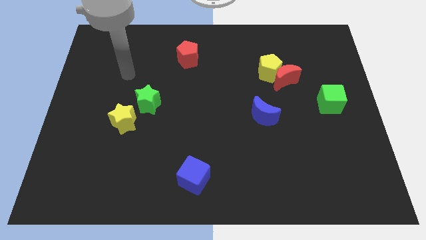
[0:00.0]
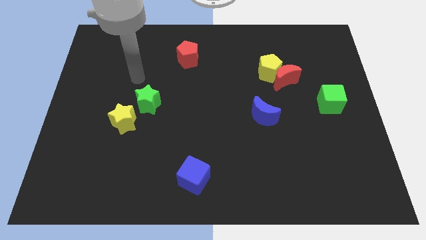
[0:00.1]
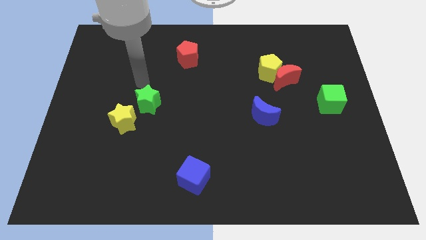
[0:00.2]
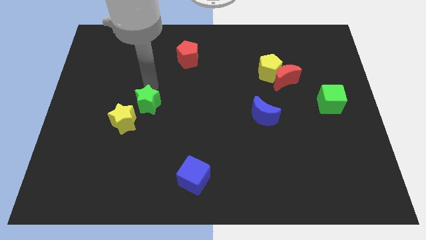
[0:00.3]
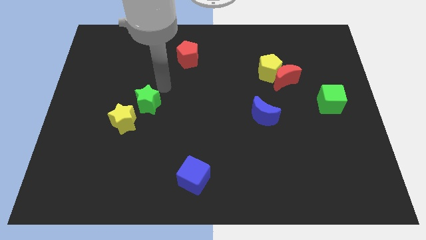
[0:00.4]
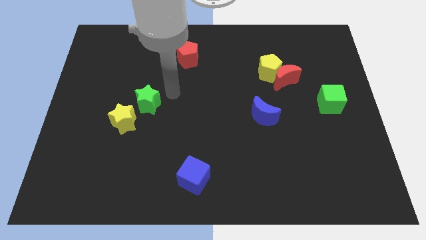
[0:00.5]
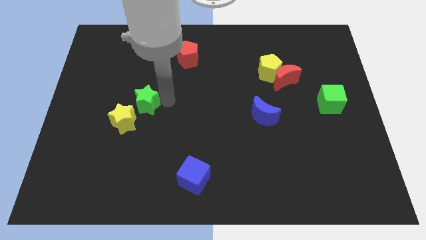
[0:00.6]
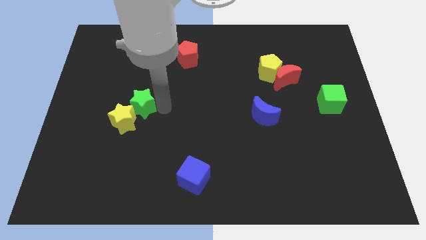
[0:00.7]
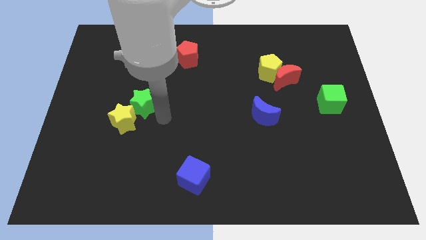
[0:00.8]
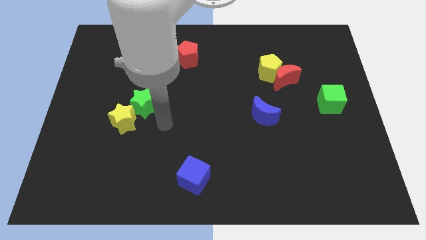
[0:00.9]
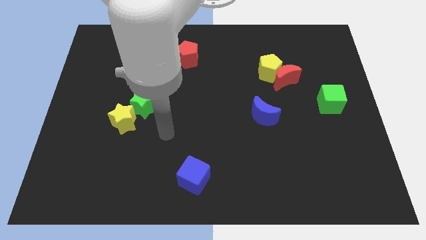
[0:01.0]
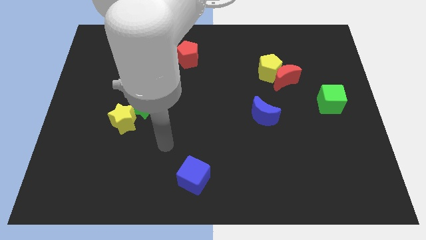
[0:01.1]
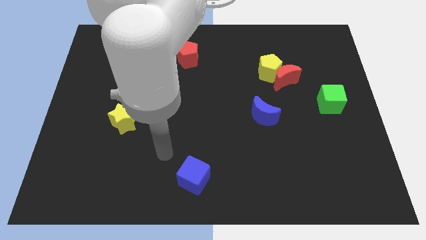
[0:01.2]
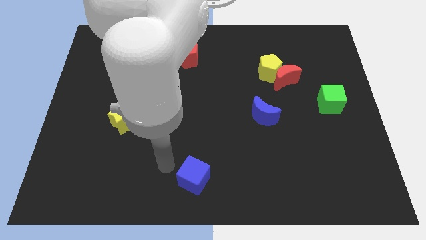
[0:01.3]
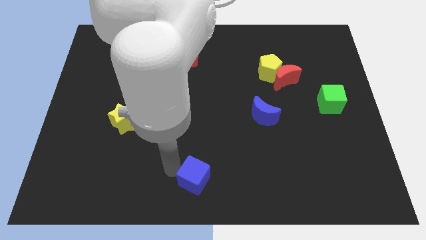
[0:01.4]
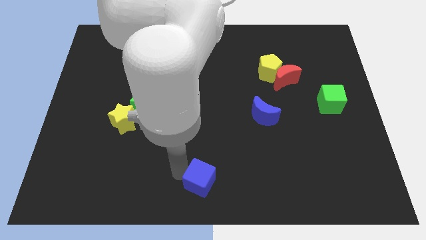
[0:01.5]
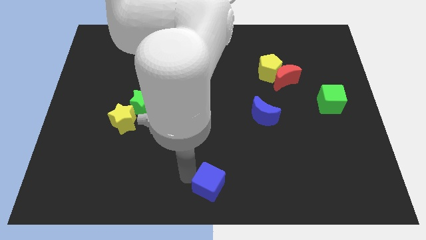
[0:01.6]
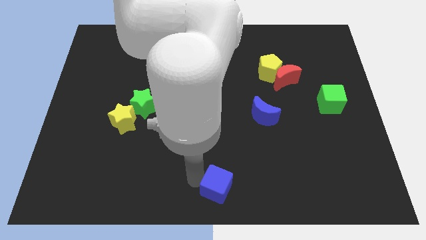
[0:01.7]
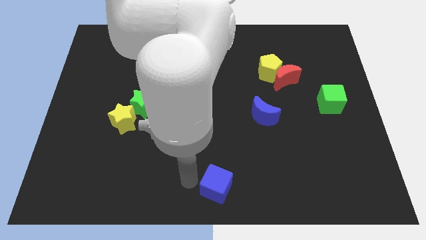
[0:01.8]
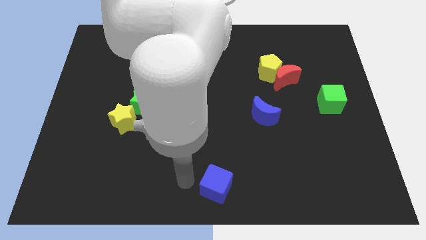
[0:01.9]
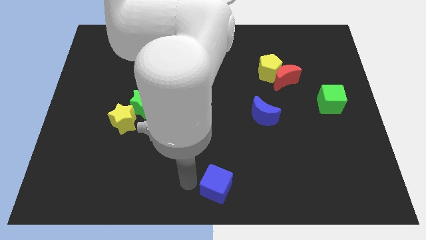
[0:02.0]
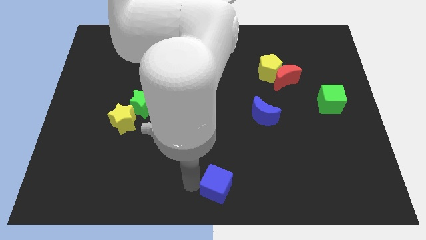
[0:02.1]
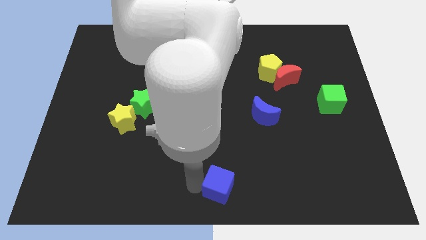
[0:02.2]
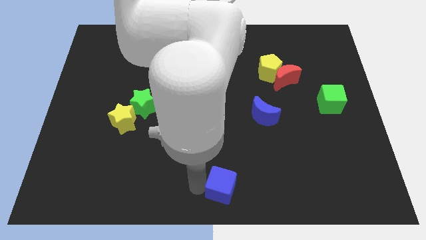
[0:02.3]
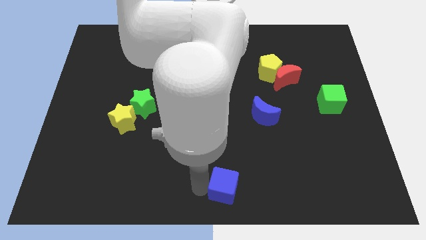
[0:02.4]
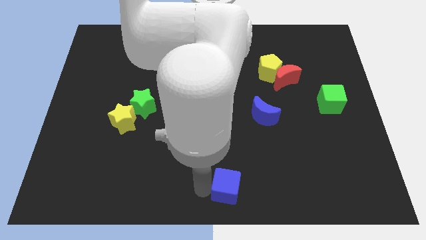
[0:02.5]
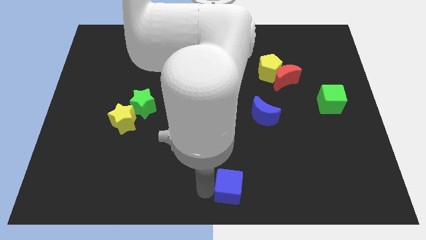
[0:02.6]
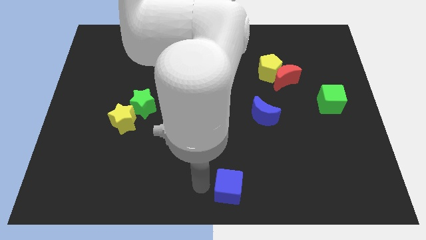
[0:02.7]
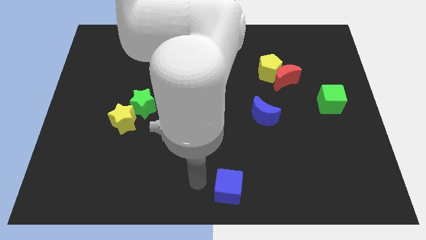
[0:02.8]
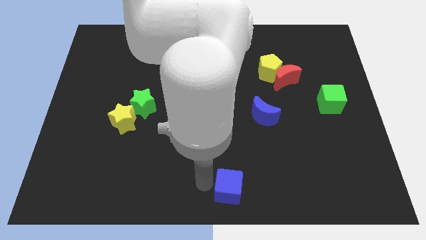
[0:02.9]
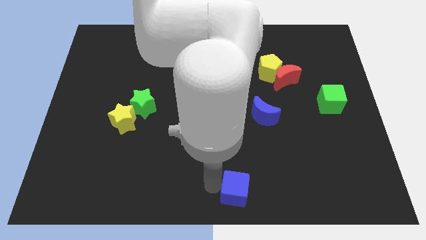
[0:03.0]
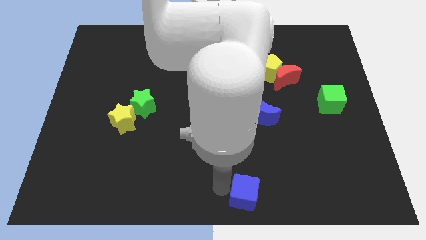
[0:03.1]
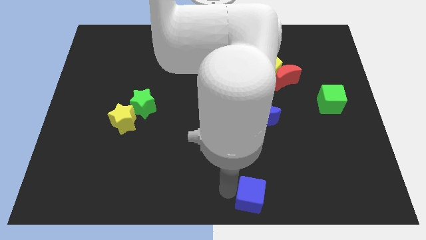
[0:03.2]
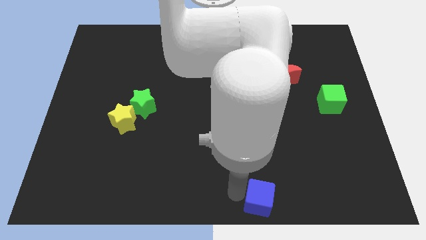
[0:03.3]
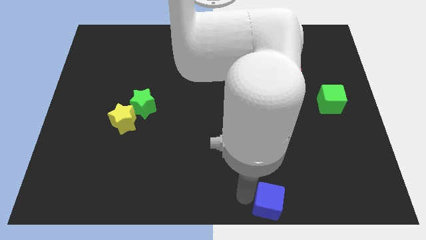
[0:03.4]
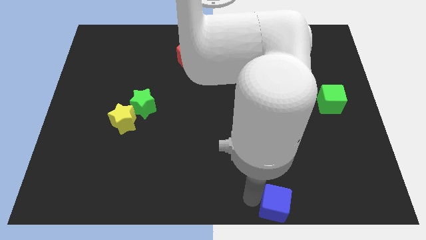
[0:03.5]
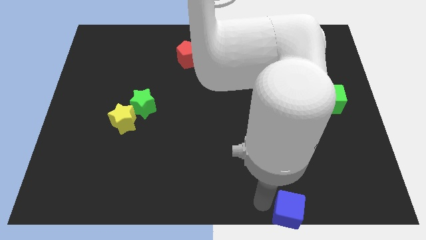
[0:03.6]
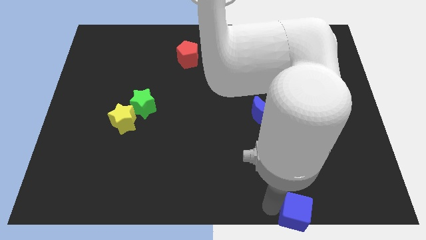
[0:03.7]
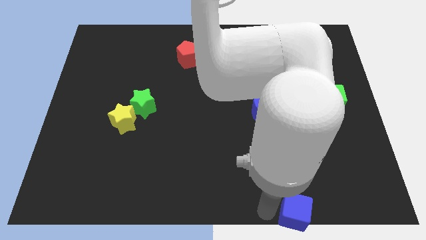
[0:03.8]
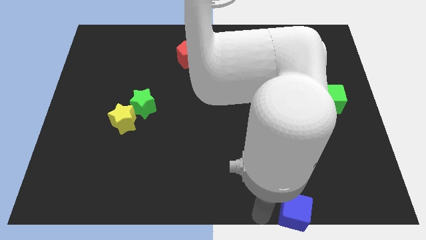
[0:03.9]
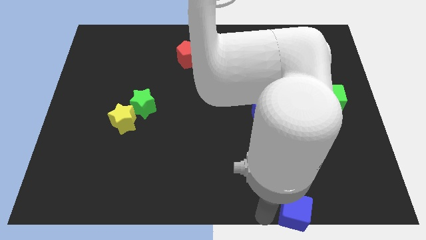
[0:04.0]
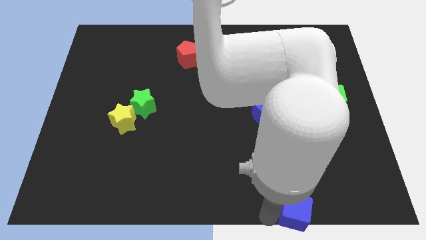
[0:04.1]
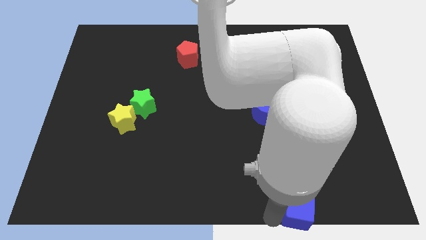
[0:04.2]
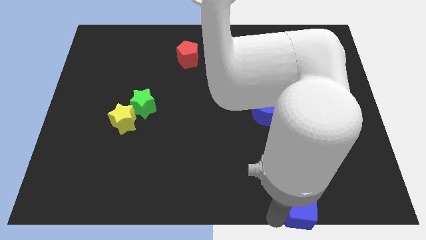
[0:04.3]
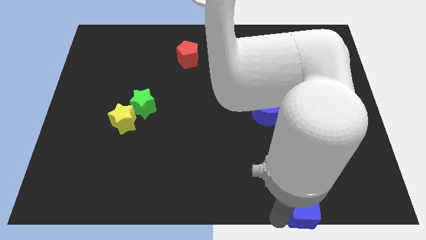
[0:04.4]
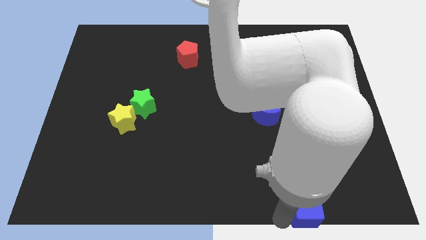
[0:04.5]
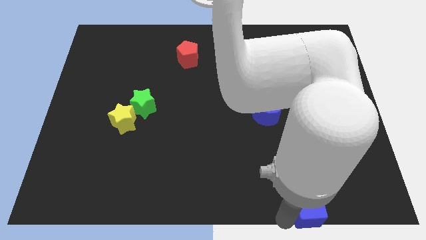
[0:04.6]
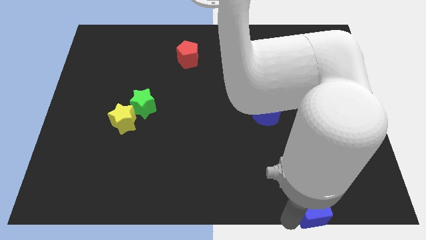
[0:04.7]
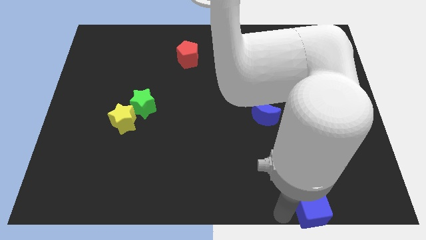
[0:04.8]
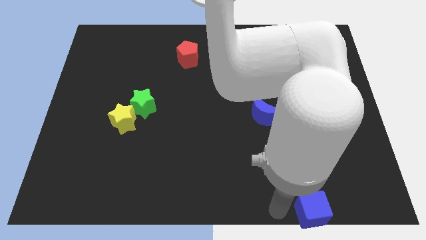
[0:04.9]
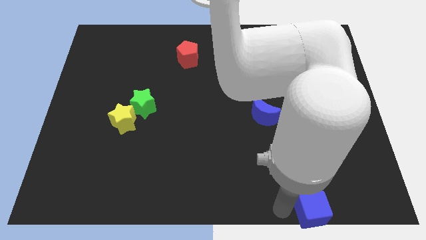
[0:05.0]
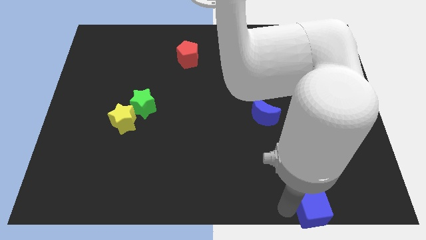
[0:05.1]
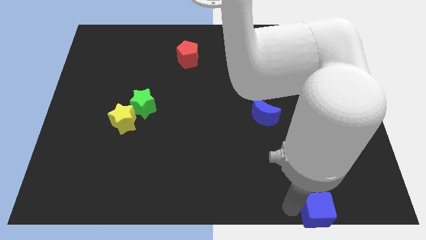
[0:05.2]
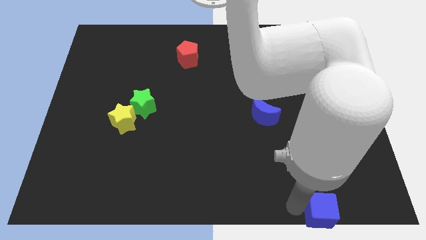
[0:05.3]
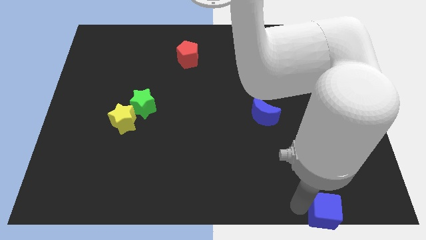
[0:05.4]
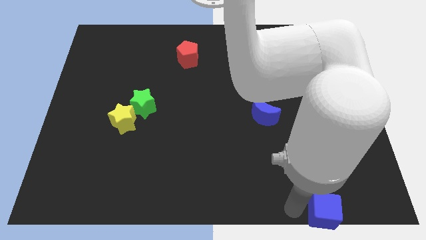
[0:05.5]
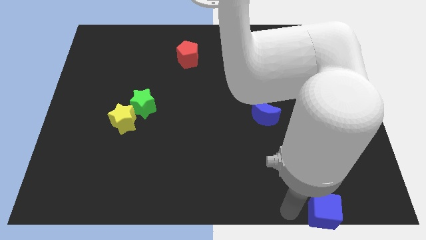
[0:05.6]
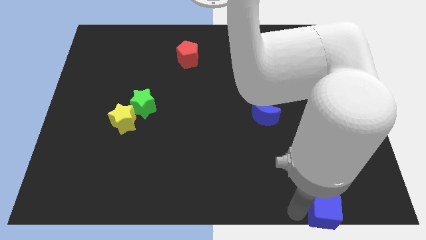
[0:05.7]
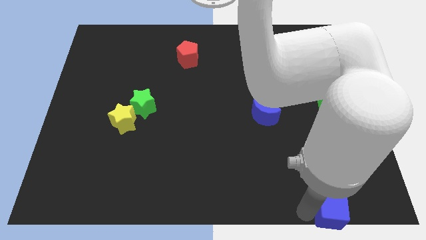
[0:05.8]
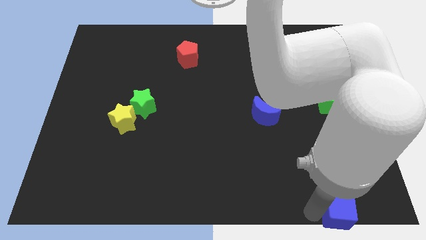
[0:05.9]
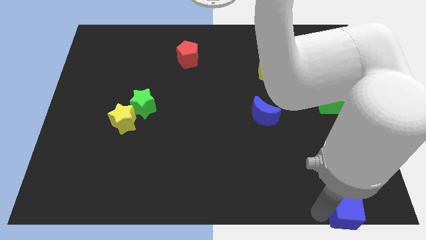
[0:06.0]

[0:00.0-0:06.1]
move the blue cube to the lower right corner
